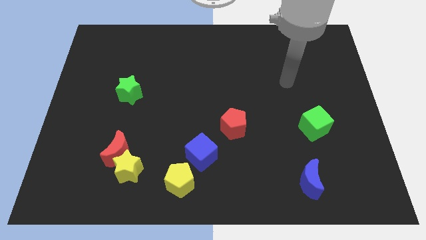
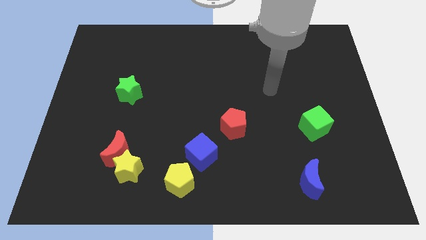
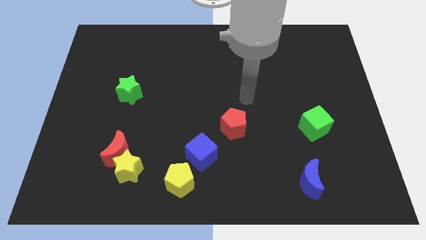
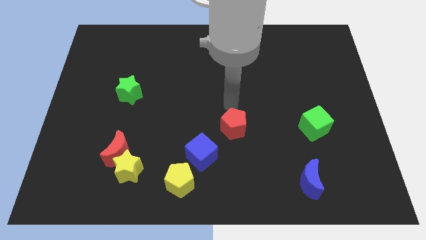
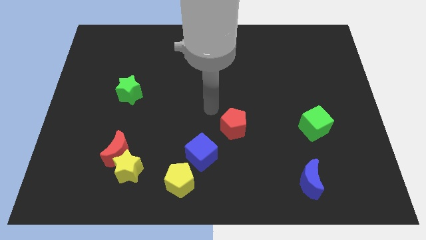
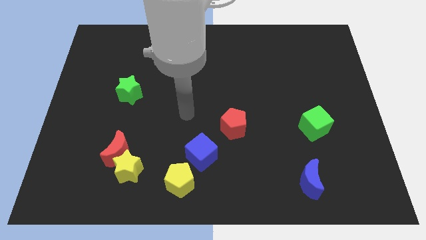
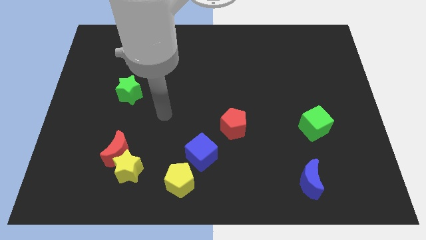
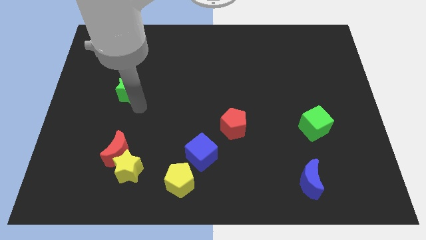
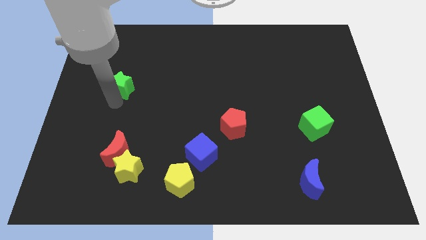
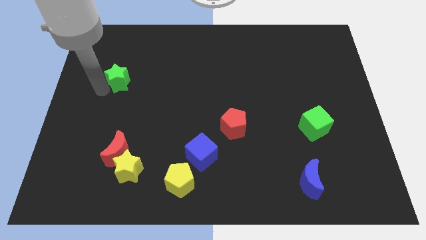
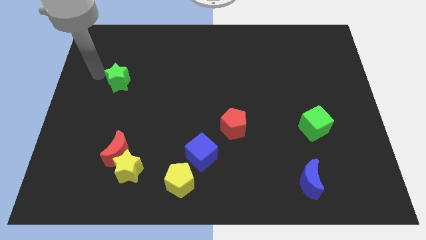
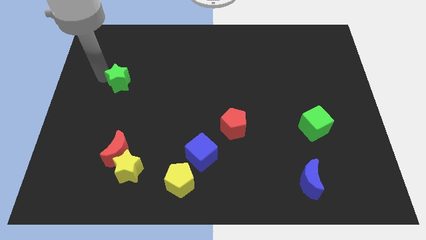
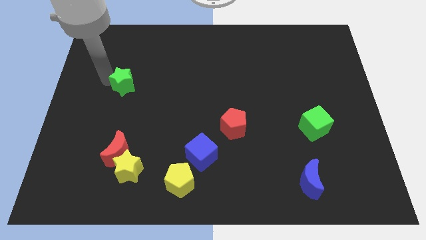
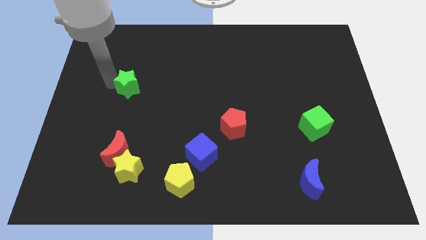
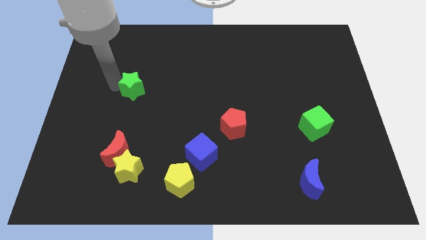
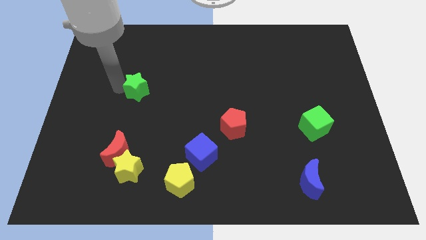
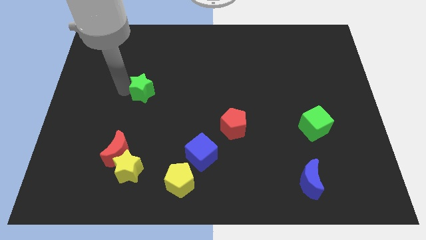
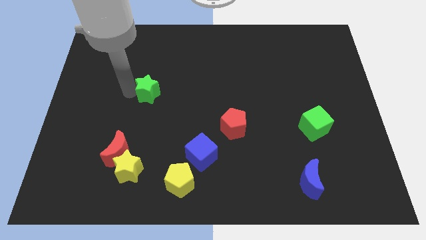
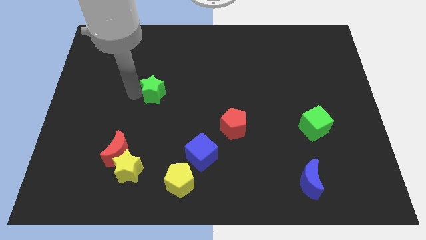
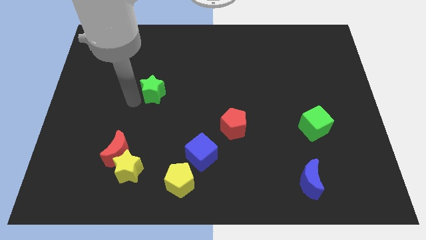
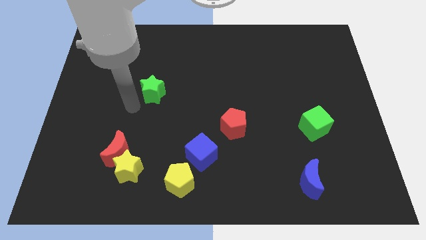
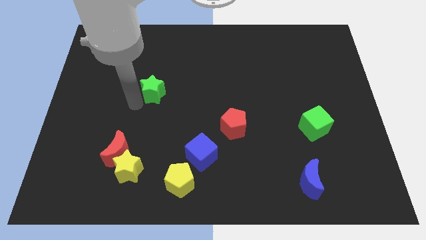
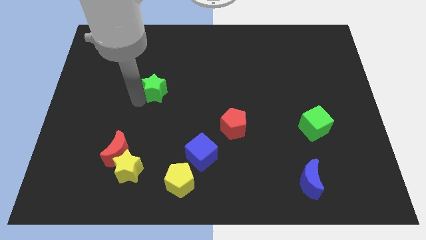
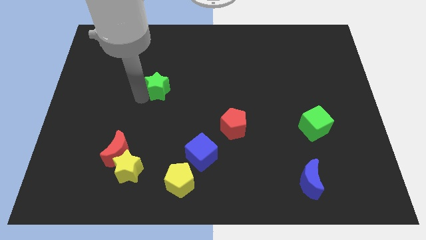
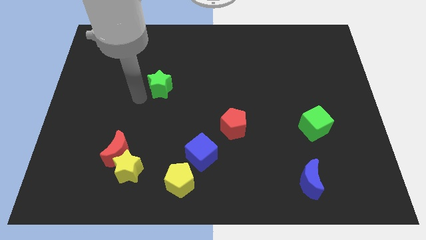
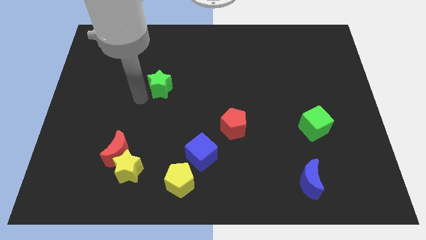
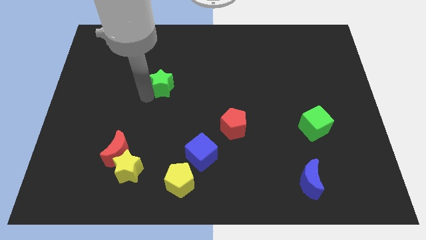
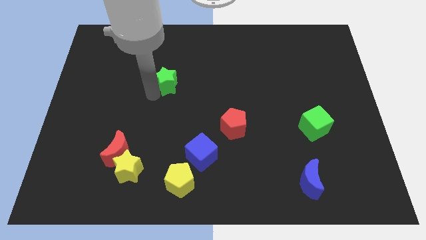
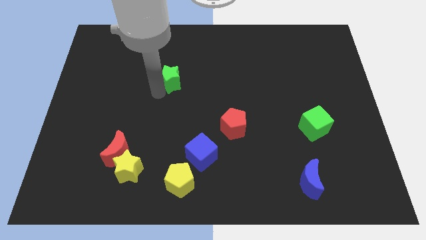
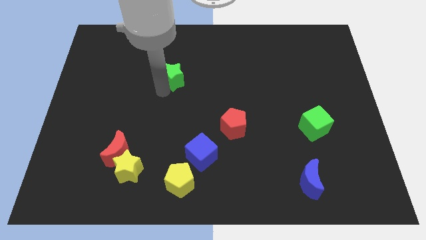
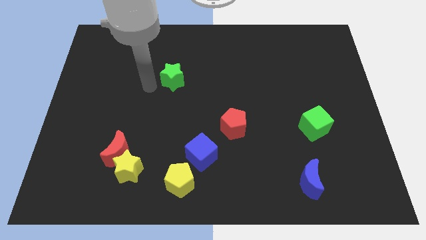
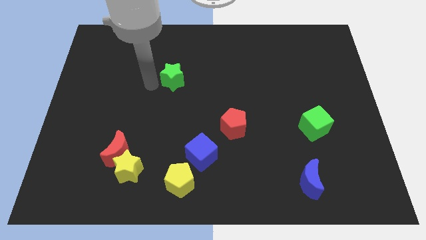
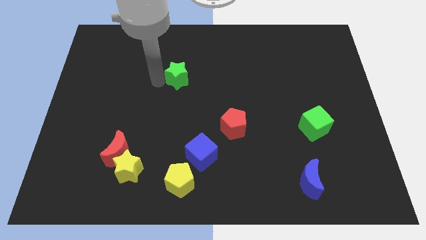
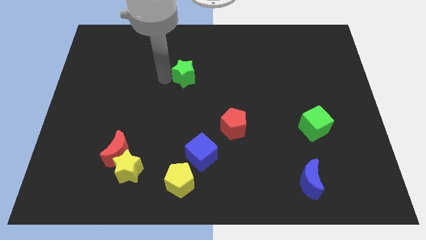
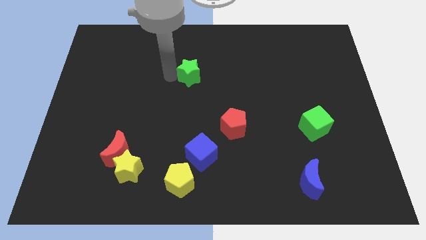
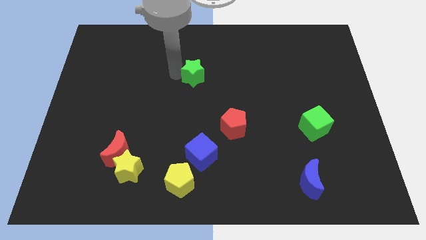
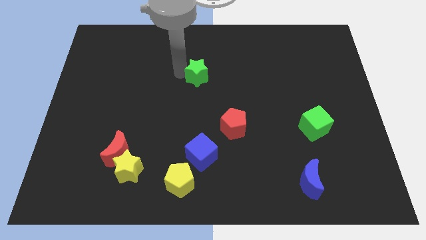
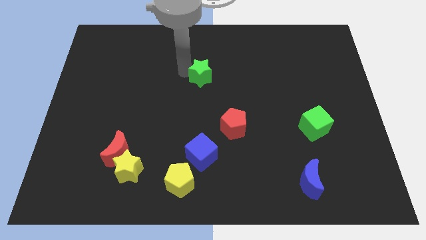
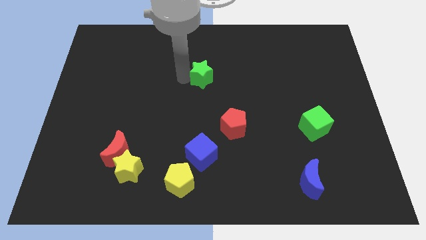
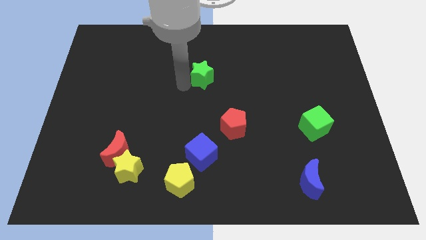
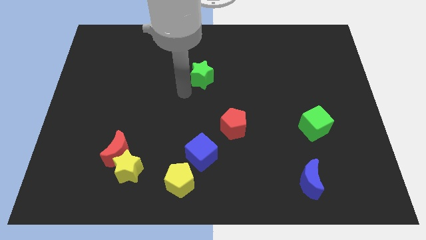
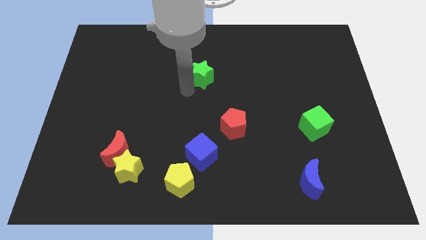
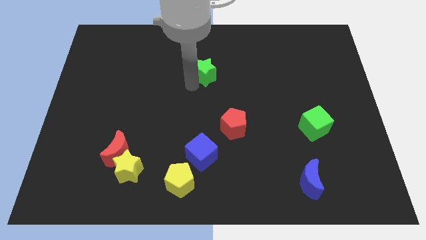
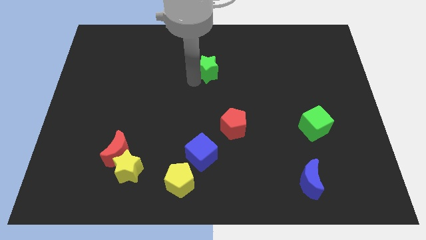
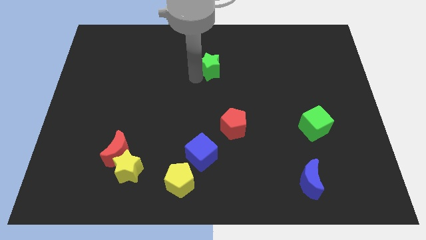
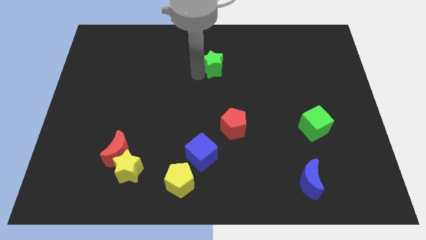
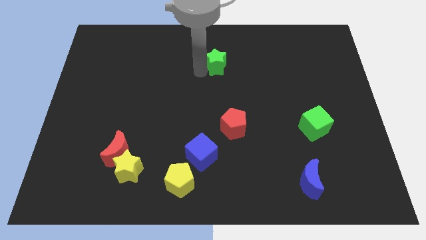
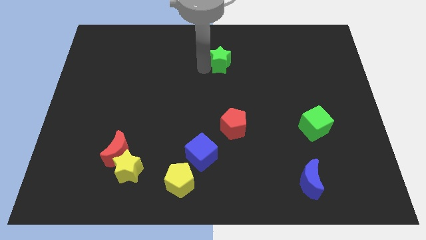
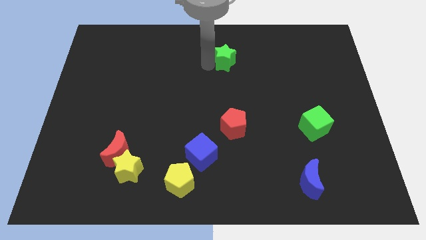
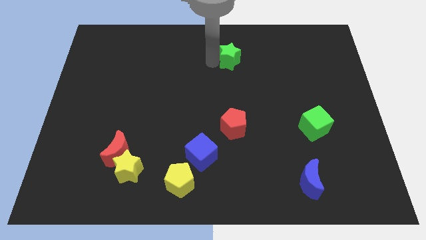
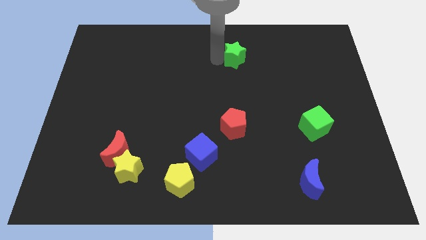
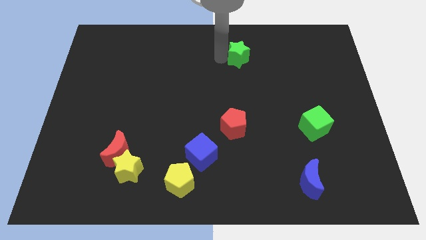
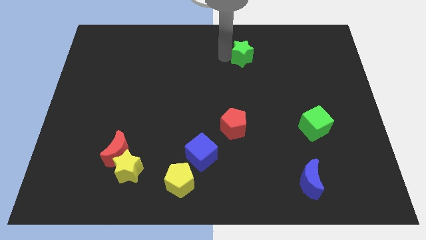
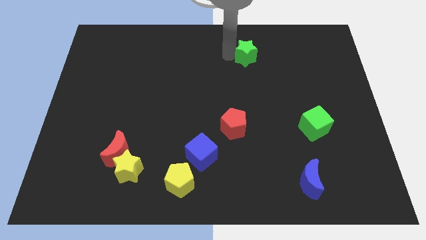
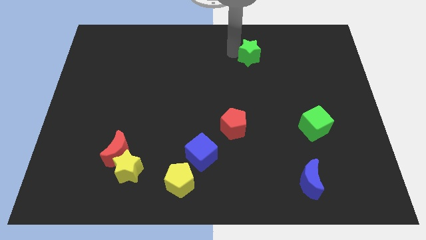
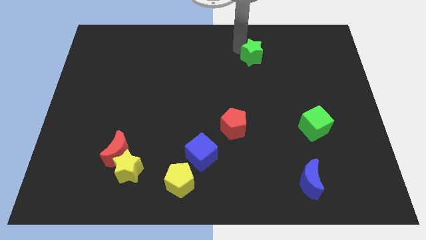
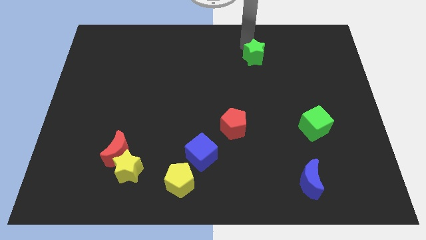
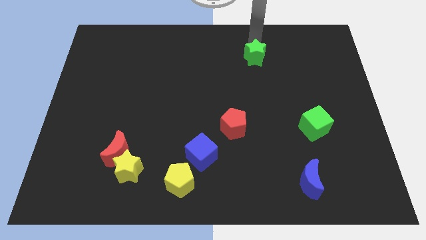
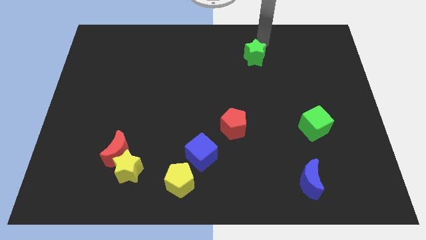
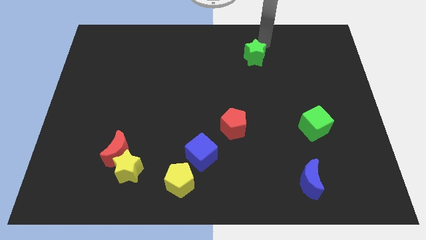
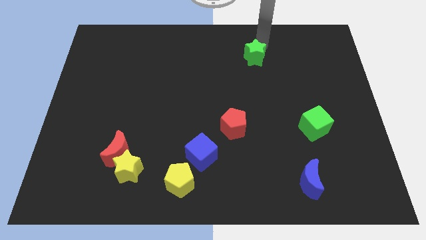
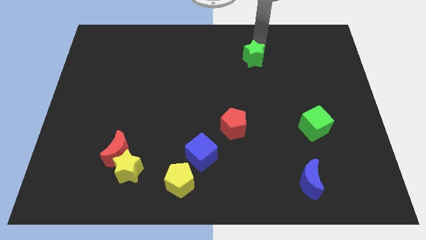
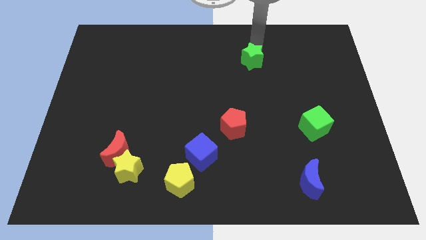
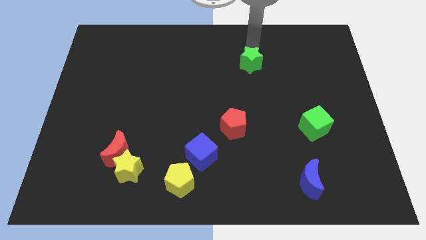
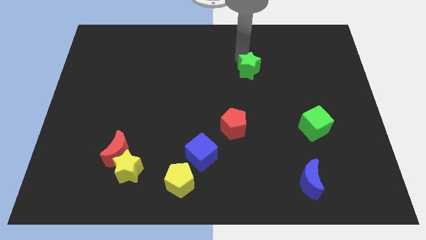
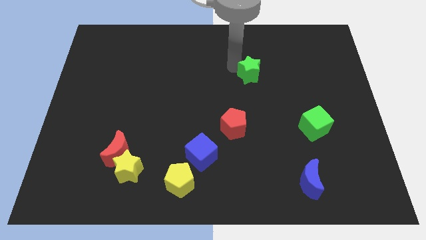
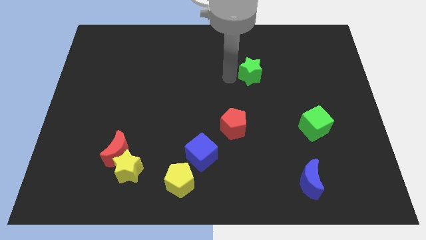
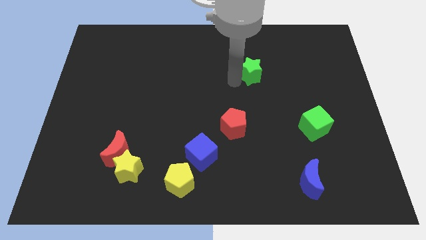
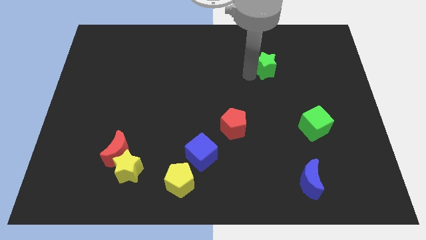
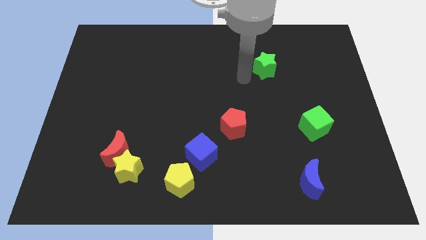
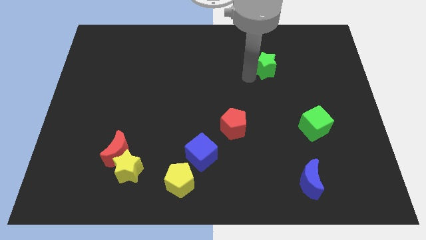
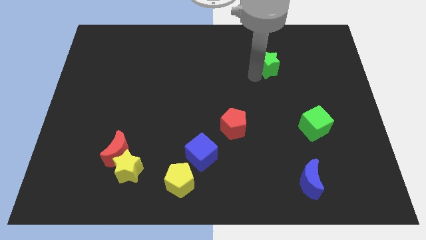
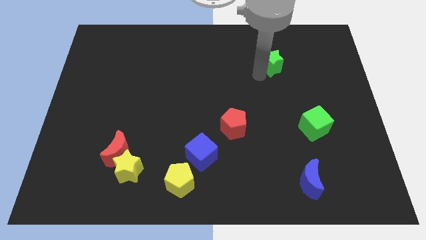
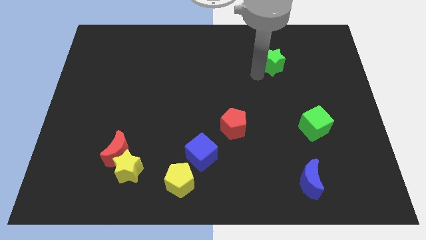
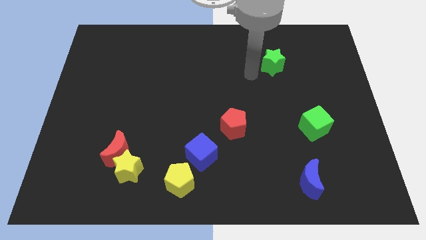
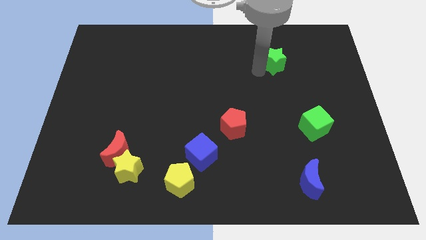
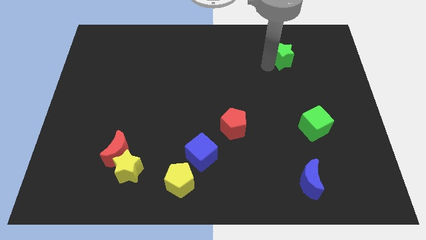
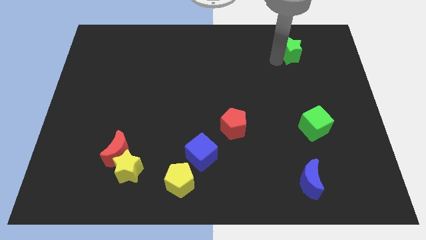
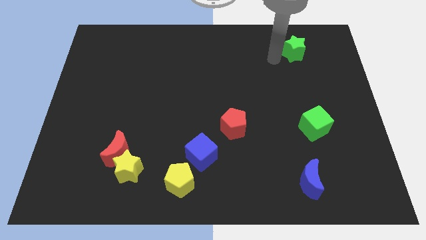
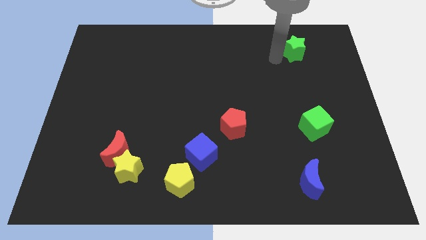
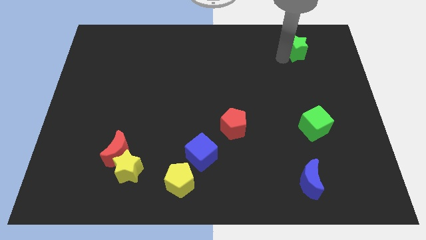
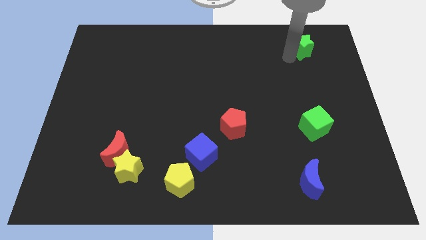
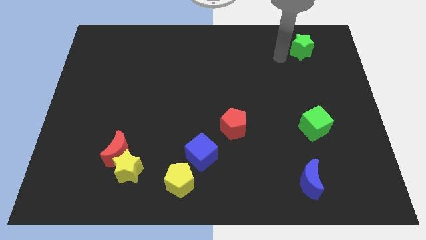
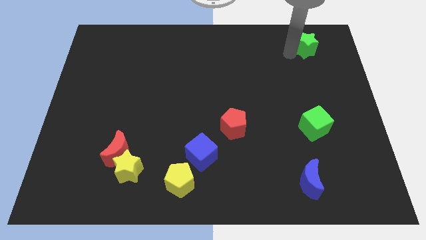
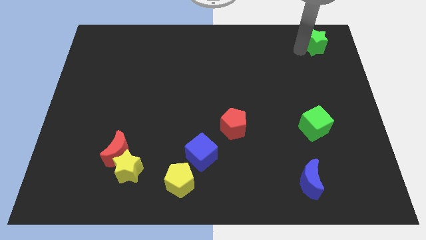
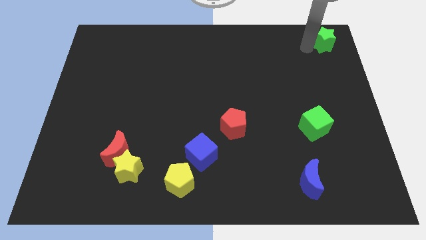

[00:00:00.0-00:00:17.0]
push the green star to the top right of the board
